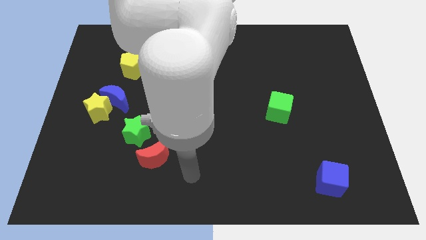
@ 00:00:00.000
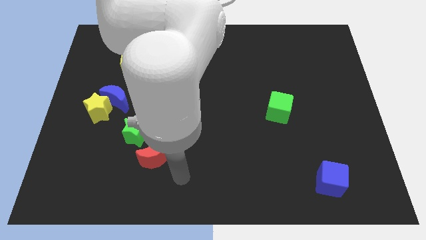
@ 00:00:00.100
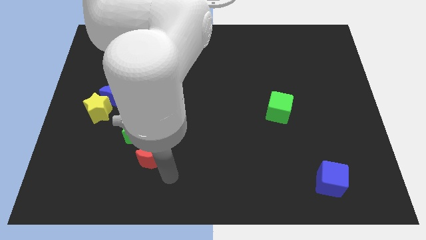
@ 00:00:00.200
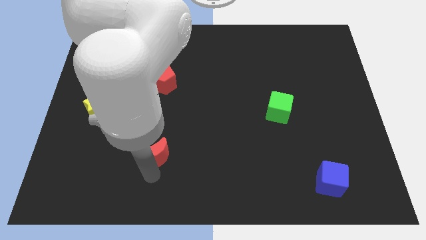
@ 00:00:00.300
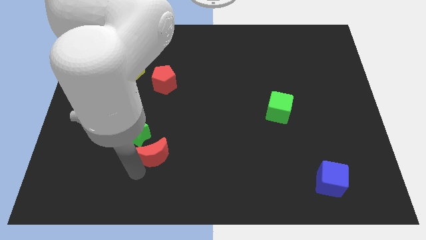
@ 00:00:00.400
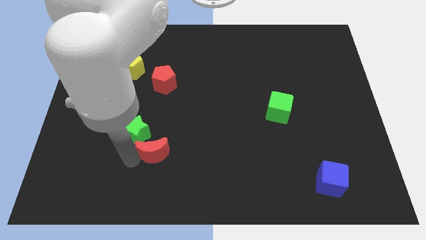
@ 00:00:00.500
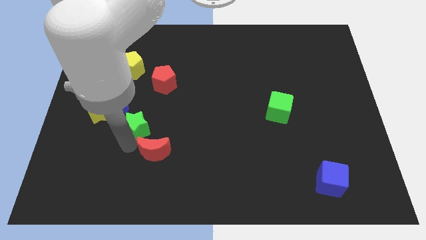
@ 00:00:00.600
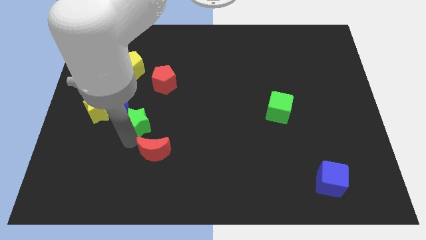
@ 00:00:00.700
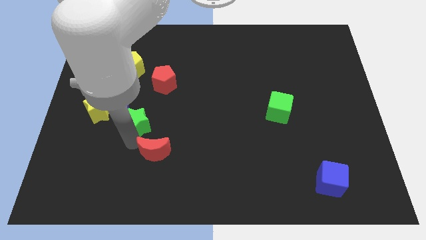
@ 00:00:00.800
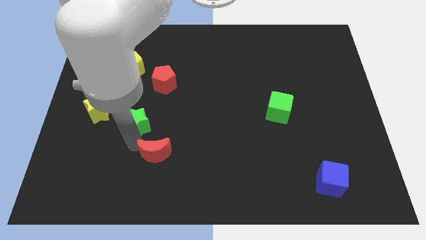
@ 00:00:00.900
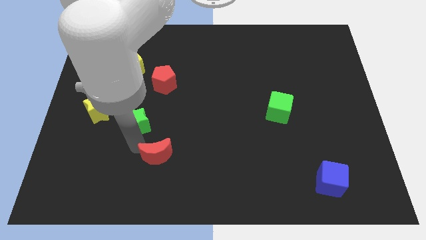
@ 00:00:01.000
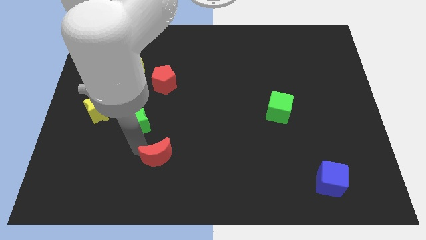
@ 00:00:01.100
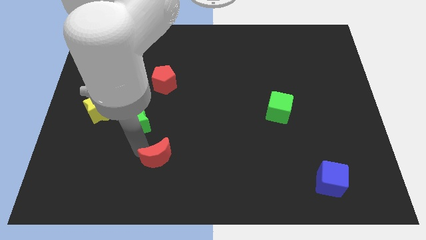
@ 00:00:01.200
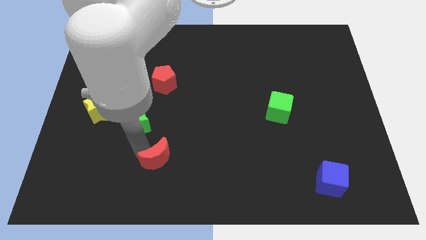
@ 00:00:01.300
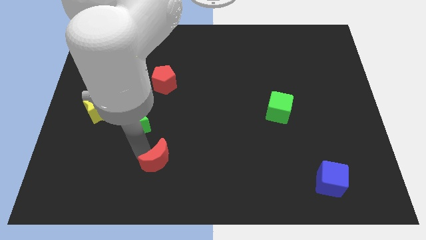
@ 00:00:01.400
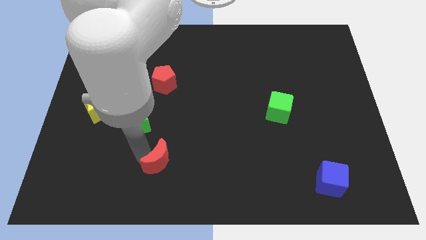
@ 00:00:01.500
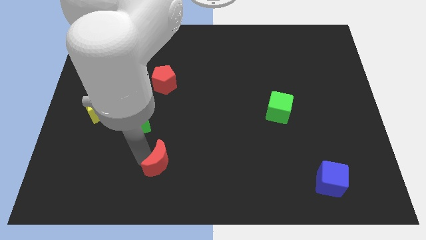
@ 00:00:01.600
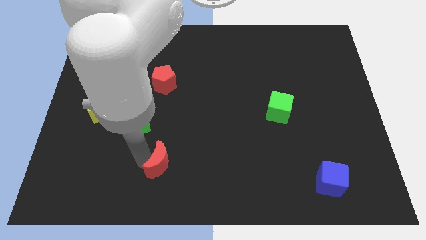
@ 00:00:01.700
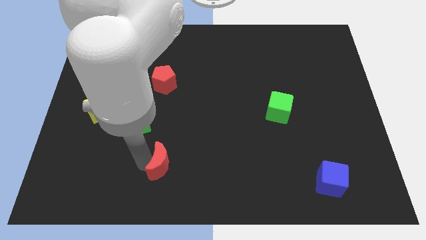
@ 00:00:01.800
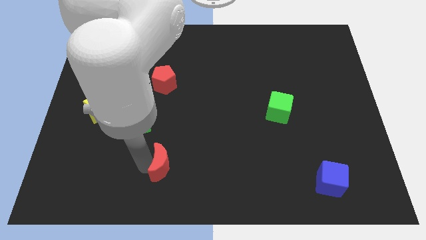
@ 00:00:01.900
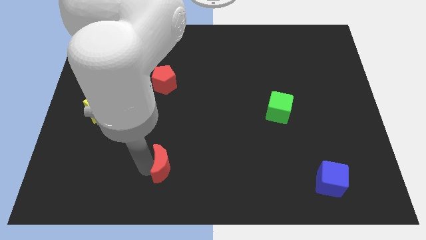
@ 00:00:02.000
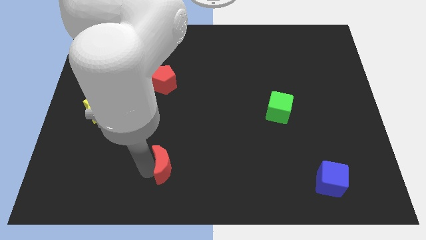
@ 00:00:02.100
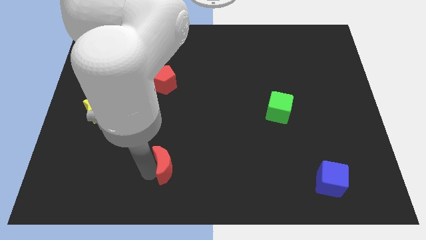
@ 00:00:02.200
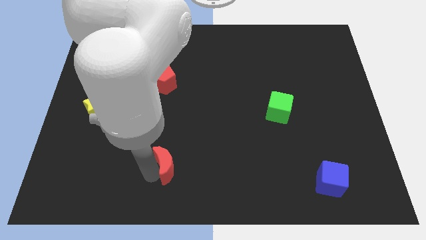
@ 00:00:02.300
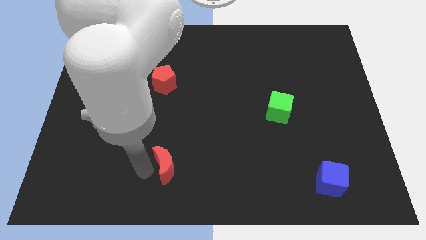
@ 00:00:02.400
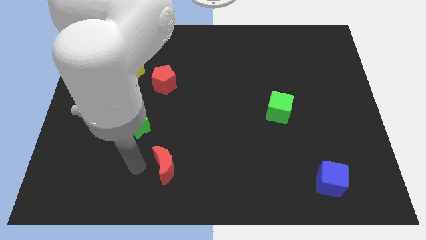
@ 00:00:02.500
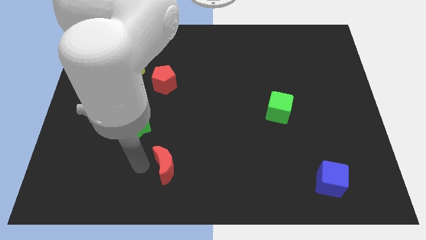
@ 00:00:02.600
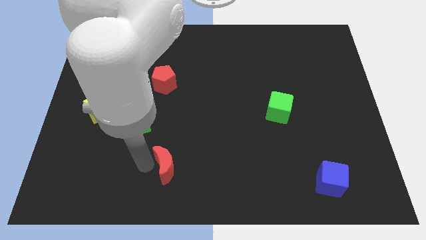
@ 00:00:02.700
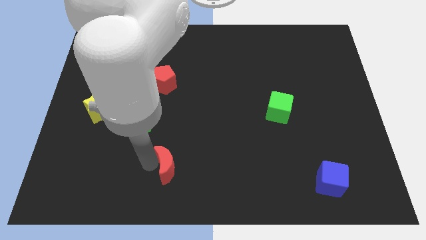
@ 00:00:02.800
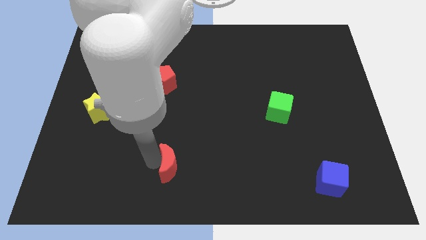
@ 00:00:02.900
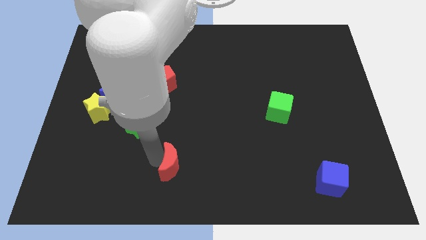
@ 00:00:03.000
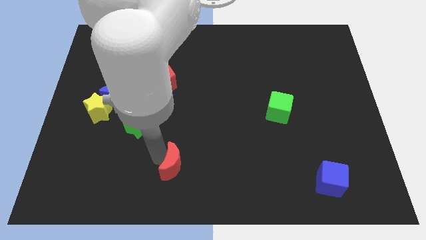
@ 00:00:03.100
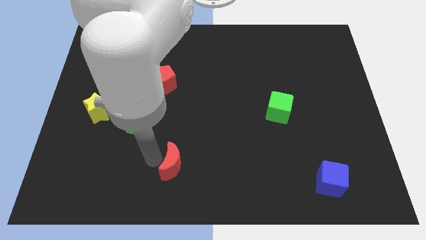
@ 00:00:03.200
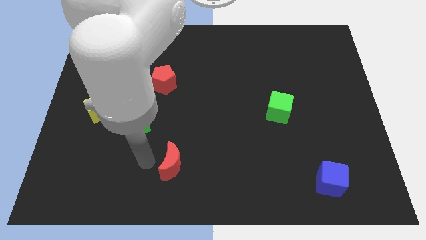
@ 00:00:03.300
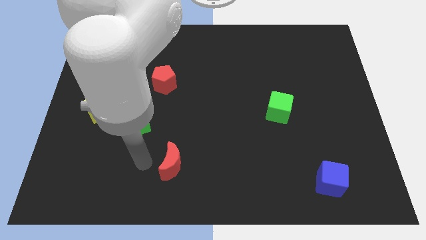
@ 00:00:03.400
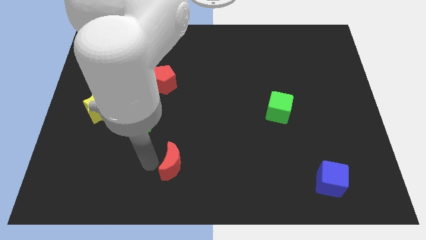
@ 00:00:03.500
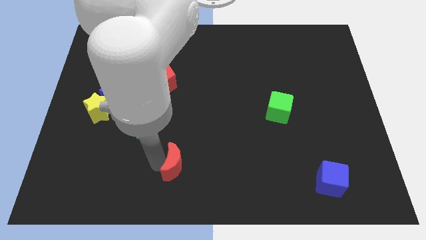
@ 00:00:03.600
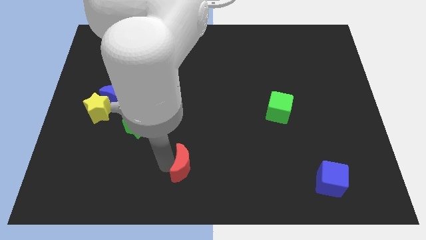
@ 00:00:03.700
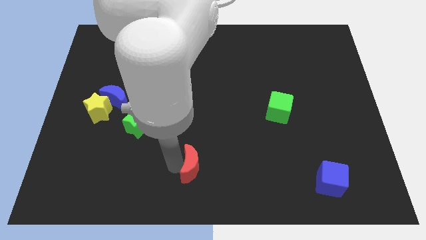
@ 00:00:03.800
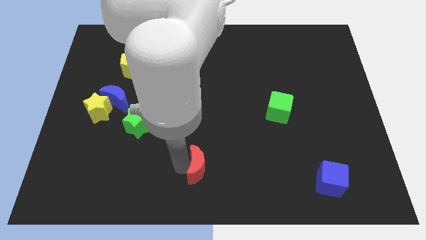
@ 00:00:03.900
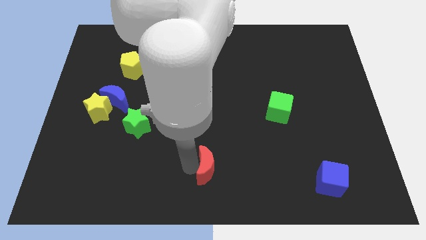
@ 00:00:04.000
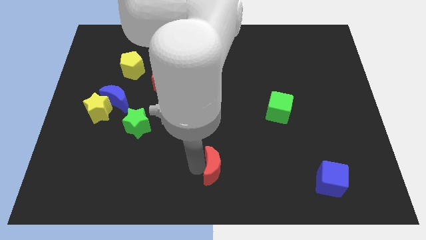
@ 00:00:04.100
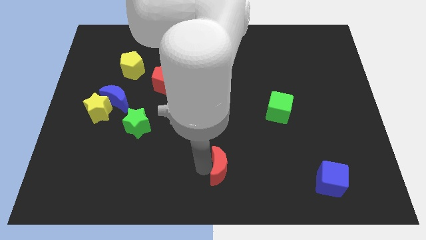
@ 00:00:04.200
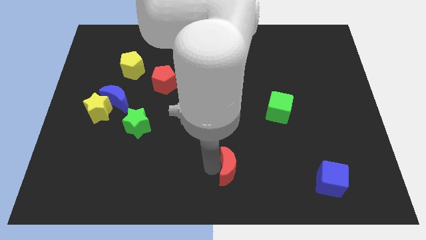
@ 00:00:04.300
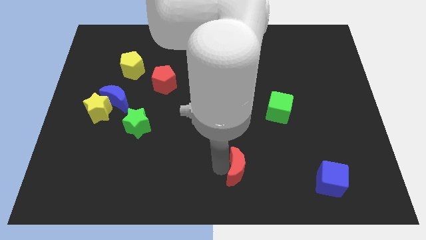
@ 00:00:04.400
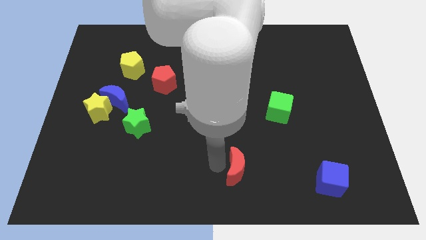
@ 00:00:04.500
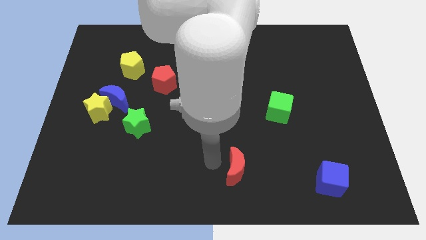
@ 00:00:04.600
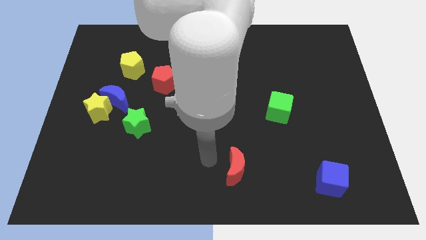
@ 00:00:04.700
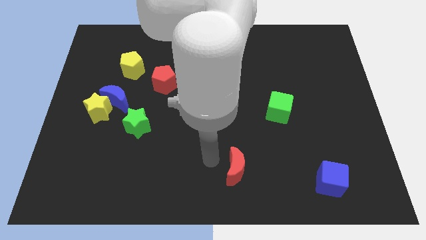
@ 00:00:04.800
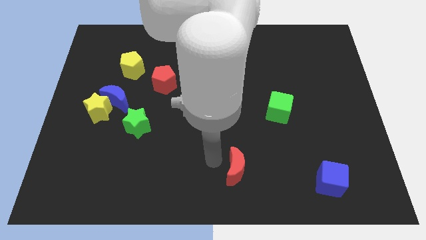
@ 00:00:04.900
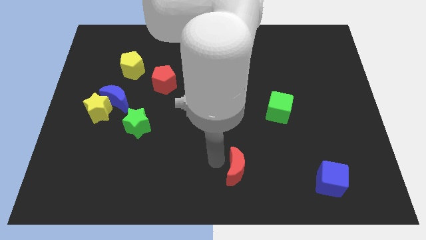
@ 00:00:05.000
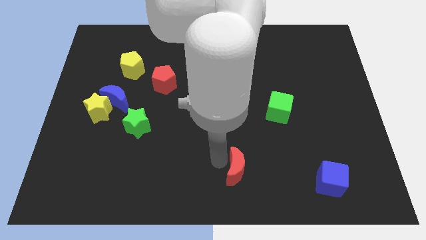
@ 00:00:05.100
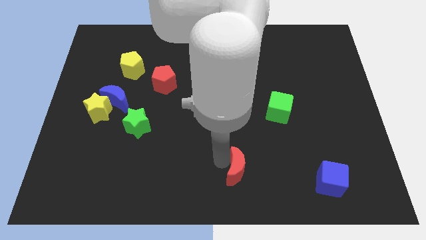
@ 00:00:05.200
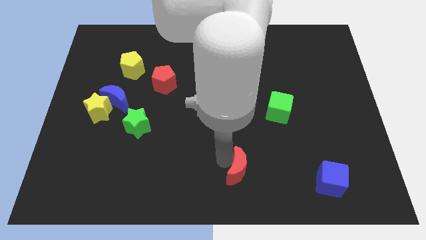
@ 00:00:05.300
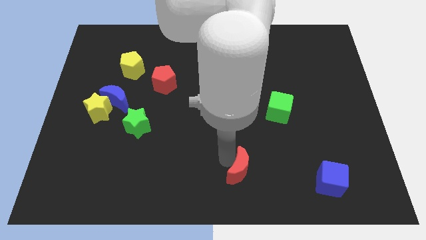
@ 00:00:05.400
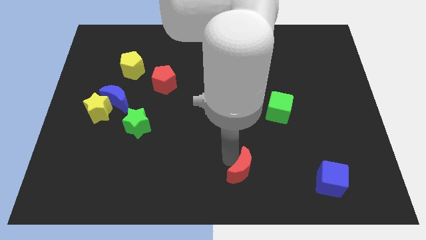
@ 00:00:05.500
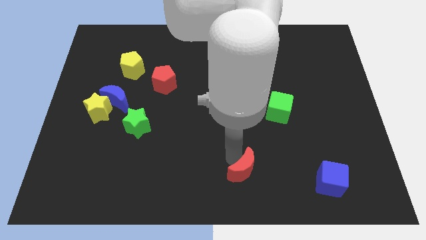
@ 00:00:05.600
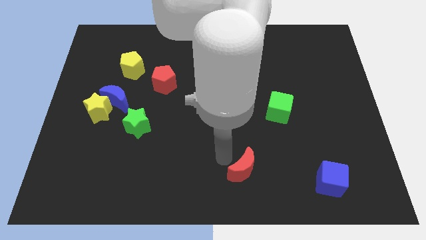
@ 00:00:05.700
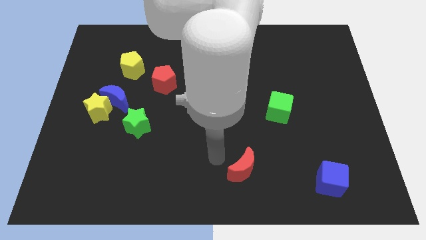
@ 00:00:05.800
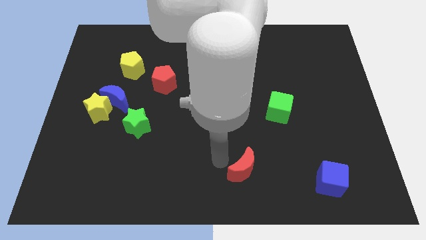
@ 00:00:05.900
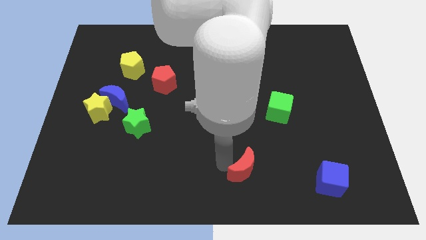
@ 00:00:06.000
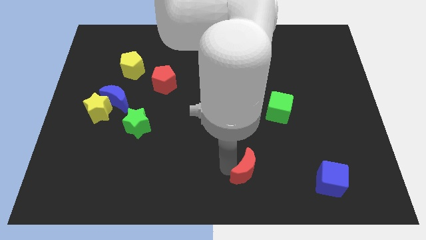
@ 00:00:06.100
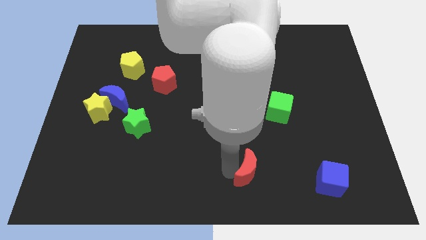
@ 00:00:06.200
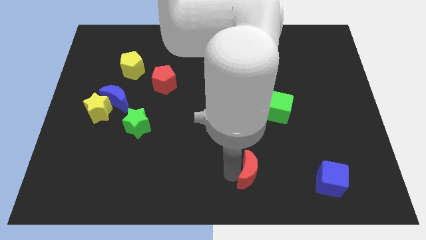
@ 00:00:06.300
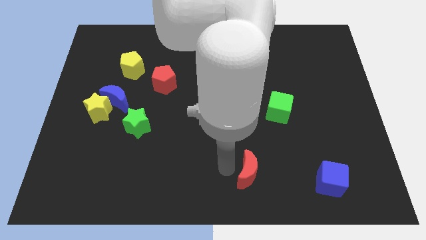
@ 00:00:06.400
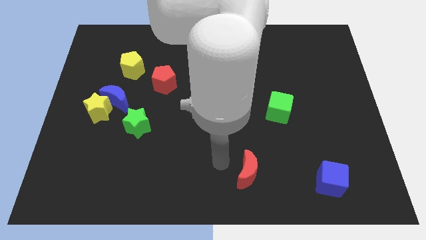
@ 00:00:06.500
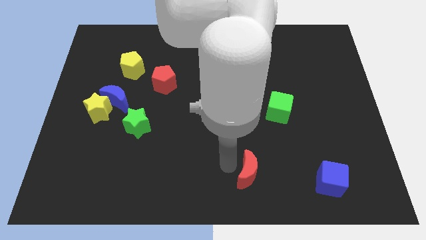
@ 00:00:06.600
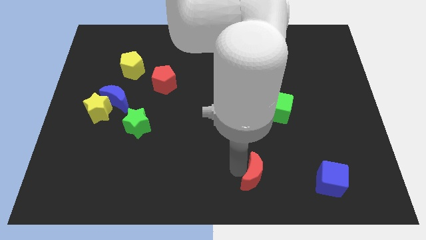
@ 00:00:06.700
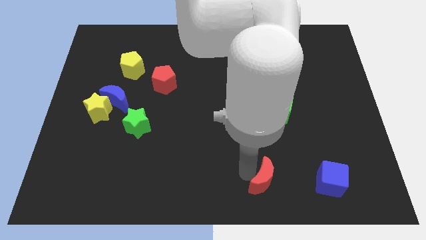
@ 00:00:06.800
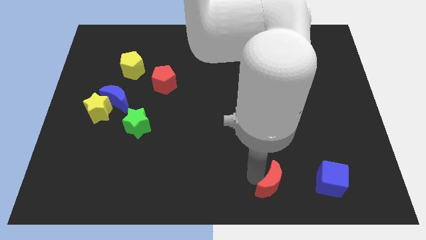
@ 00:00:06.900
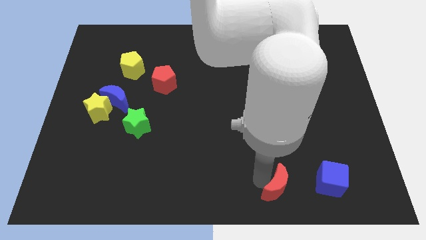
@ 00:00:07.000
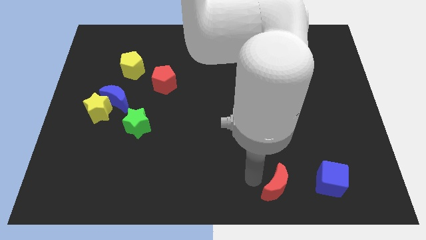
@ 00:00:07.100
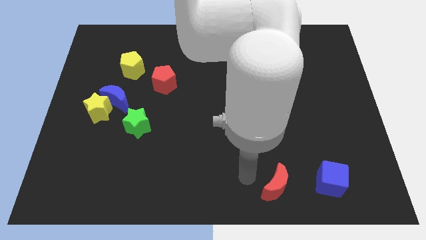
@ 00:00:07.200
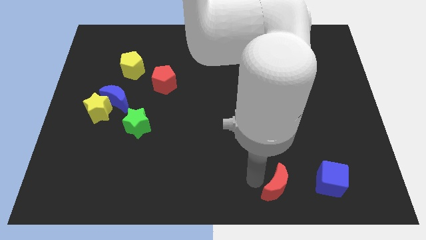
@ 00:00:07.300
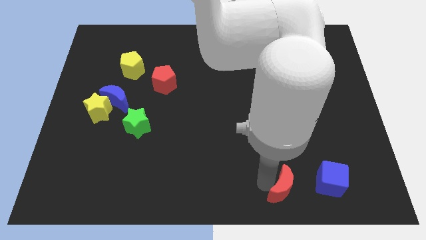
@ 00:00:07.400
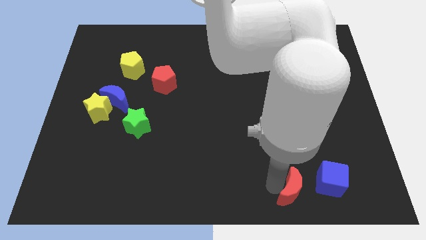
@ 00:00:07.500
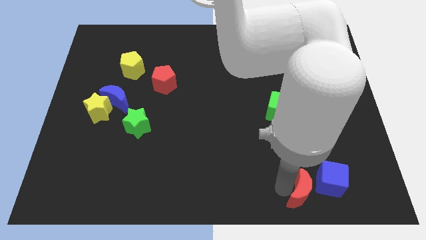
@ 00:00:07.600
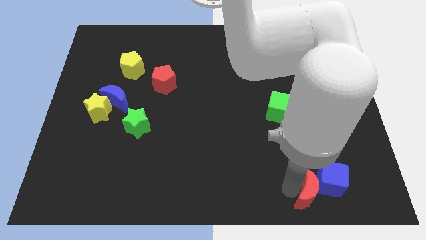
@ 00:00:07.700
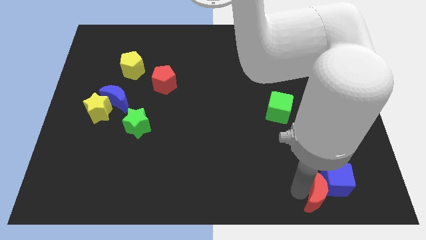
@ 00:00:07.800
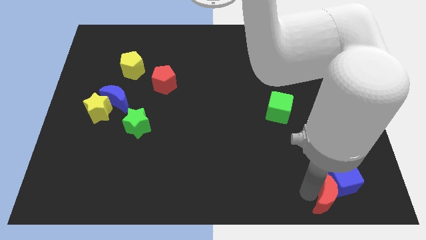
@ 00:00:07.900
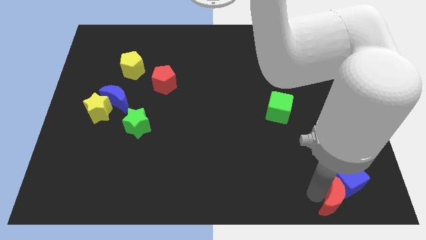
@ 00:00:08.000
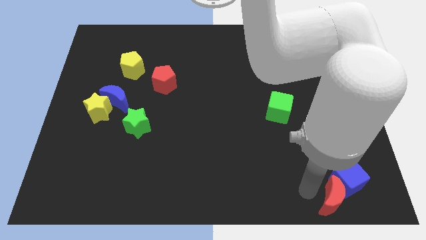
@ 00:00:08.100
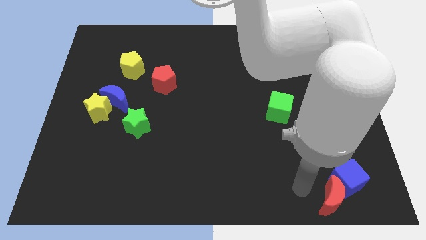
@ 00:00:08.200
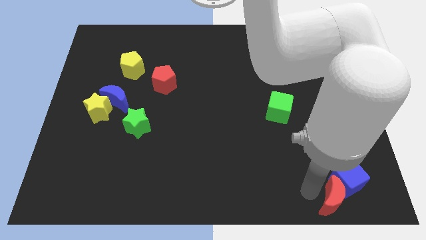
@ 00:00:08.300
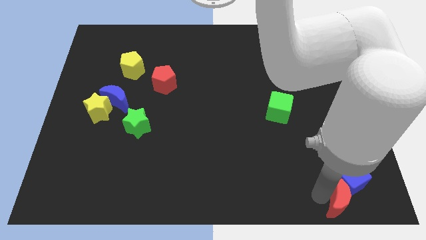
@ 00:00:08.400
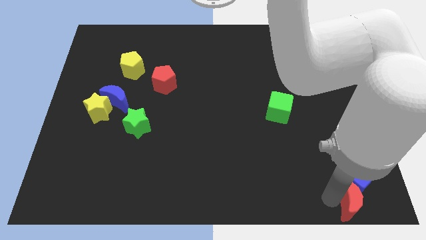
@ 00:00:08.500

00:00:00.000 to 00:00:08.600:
push the red moon to the bottom right of the board
